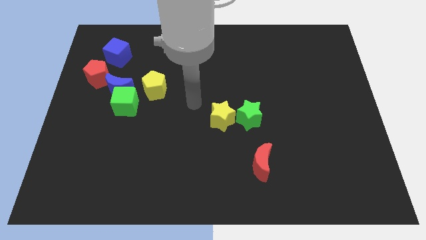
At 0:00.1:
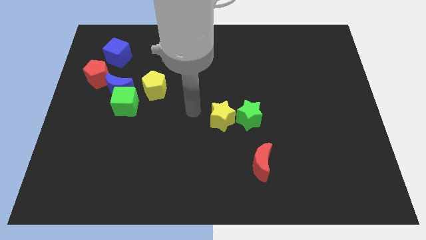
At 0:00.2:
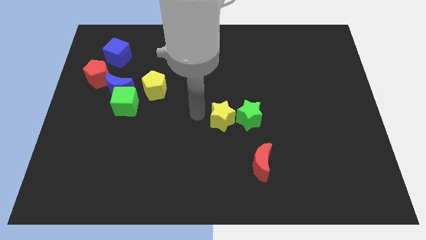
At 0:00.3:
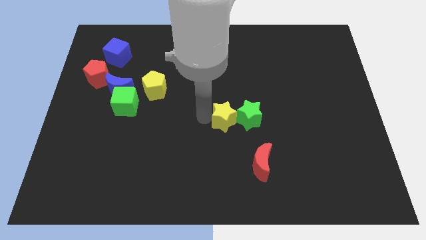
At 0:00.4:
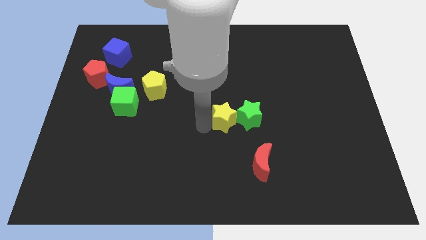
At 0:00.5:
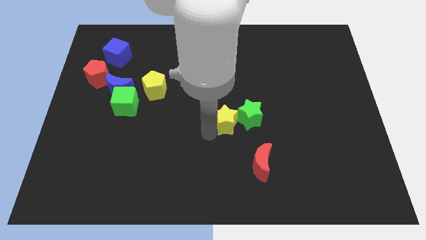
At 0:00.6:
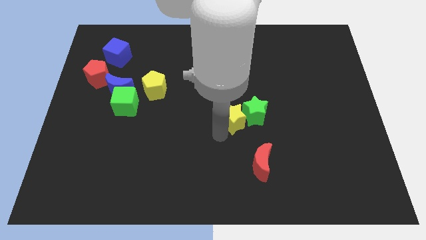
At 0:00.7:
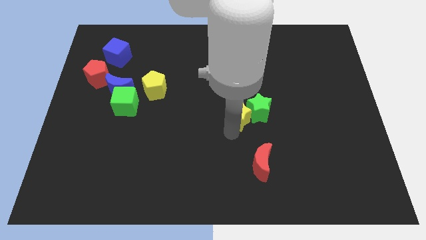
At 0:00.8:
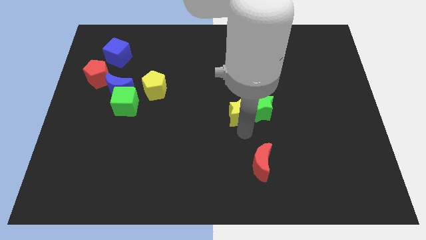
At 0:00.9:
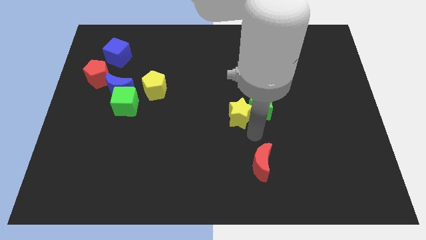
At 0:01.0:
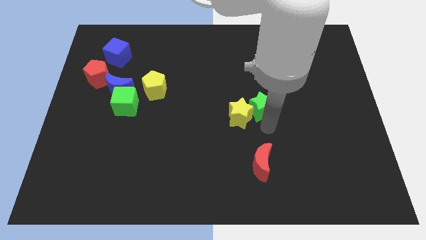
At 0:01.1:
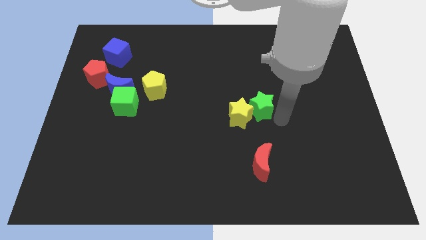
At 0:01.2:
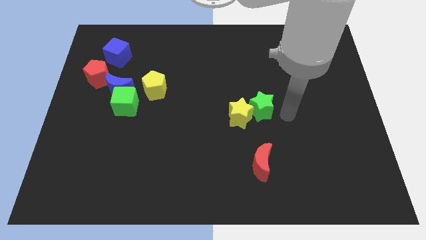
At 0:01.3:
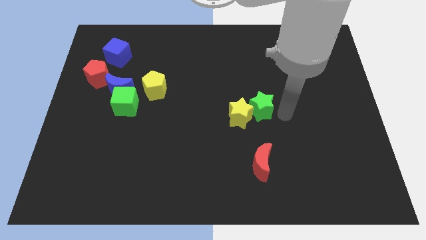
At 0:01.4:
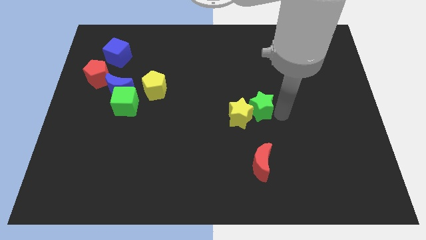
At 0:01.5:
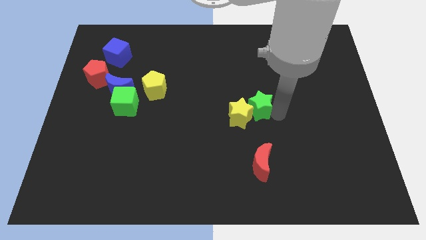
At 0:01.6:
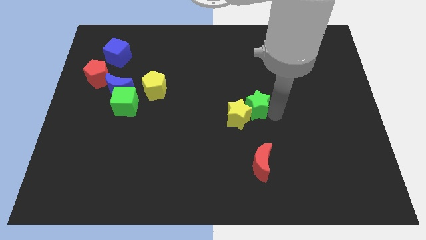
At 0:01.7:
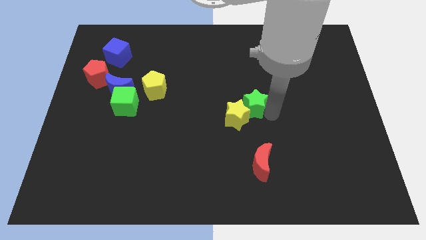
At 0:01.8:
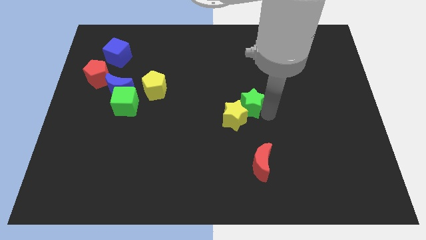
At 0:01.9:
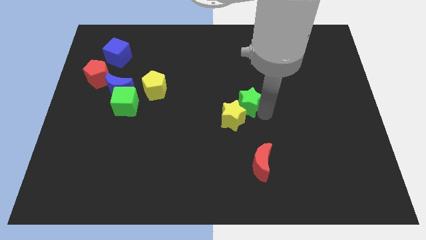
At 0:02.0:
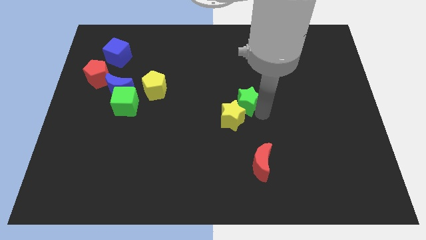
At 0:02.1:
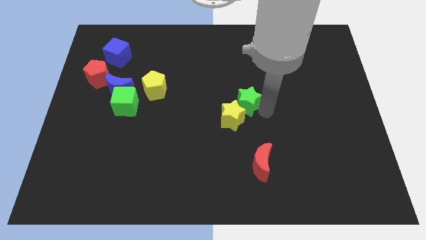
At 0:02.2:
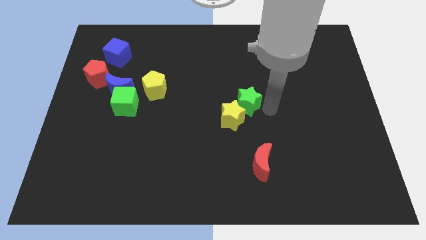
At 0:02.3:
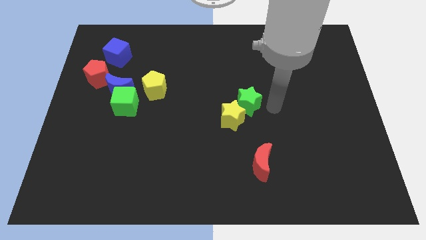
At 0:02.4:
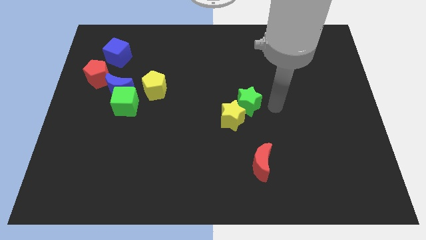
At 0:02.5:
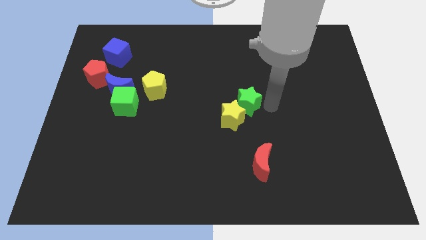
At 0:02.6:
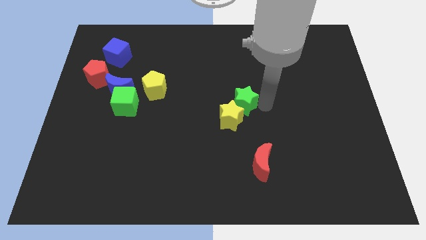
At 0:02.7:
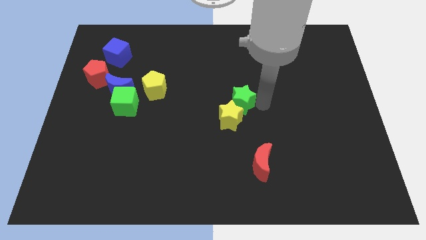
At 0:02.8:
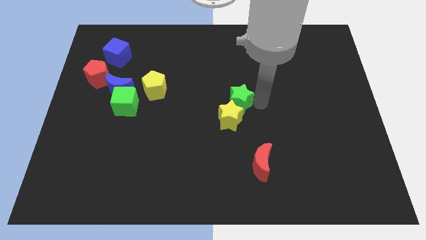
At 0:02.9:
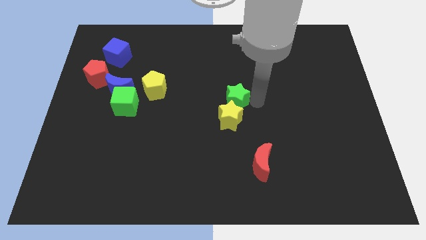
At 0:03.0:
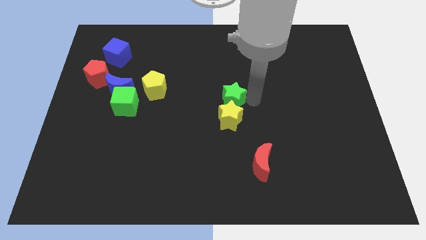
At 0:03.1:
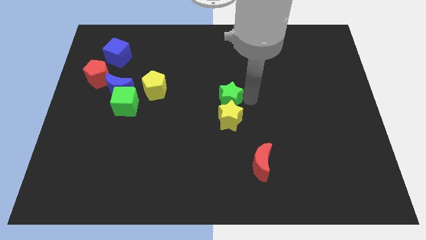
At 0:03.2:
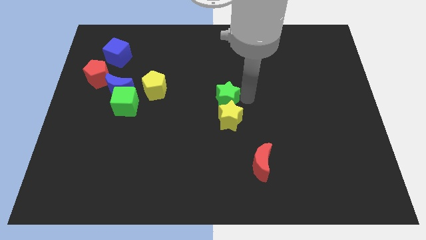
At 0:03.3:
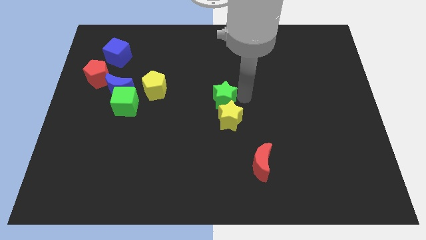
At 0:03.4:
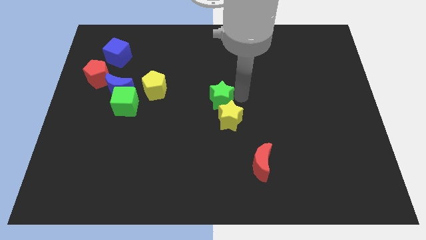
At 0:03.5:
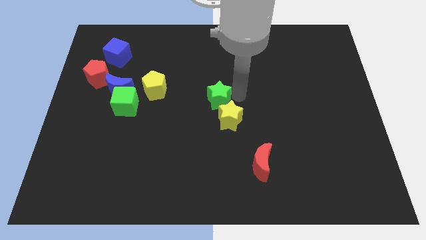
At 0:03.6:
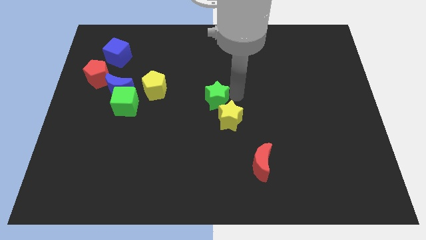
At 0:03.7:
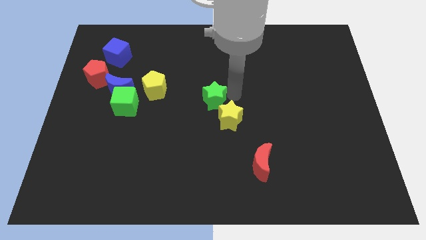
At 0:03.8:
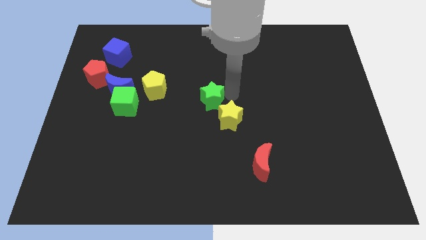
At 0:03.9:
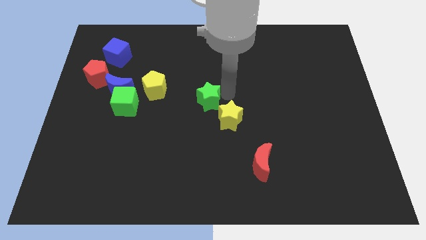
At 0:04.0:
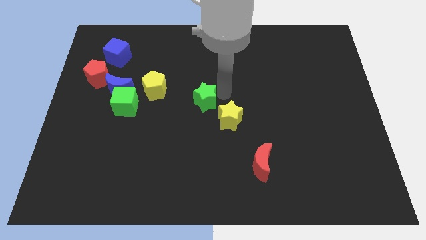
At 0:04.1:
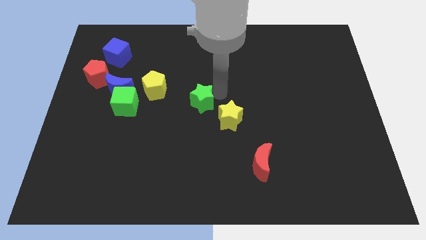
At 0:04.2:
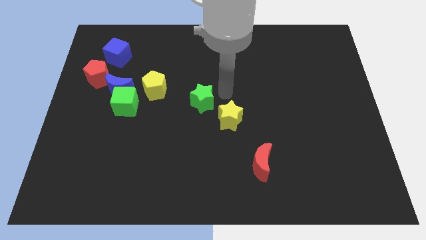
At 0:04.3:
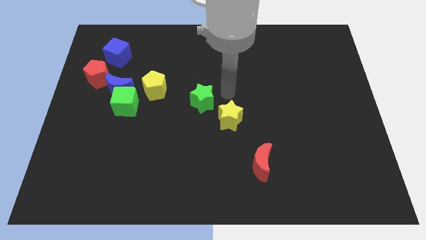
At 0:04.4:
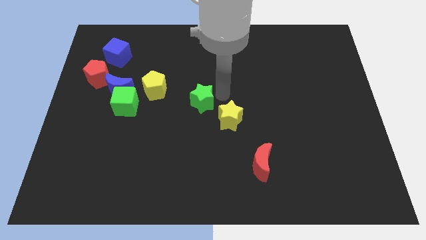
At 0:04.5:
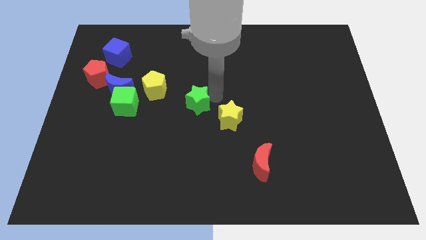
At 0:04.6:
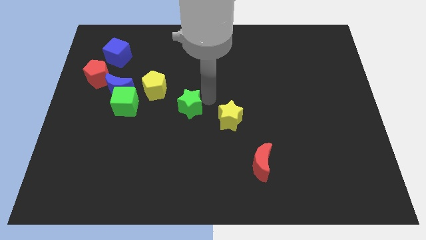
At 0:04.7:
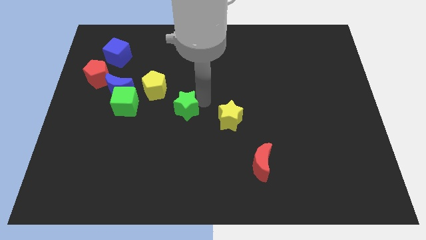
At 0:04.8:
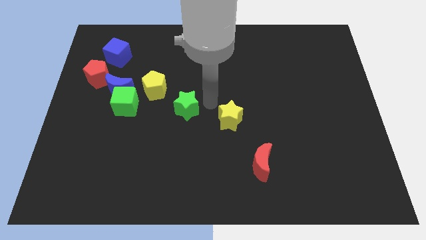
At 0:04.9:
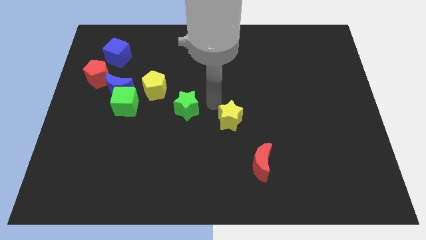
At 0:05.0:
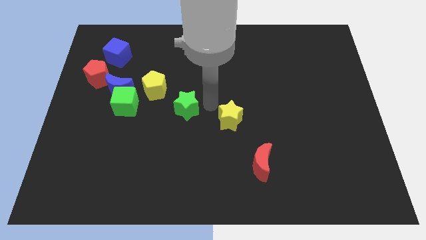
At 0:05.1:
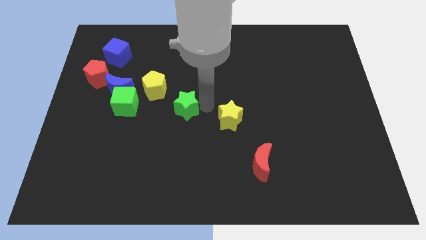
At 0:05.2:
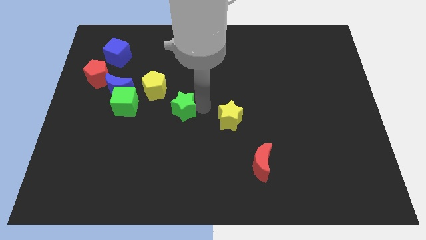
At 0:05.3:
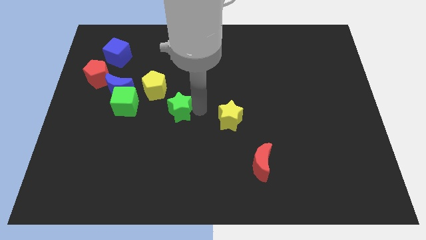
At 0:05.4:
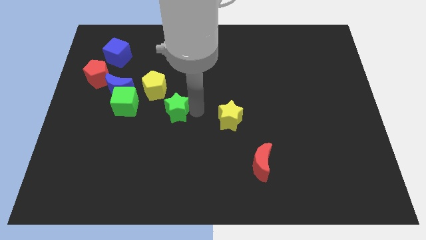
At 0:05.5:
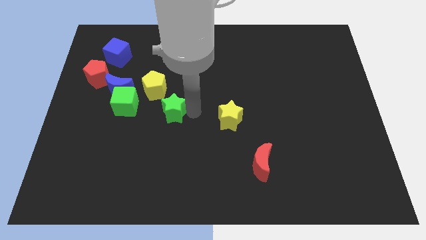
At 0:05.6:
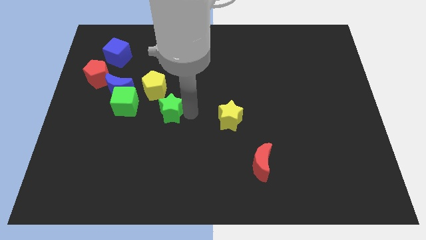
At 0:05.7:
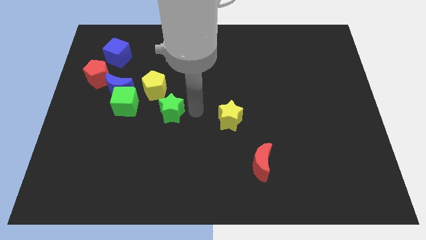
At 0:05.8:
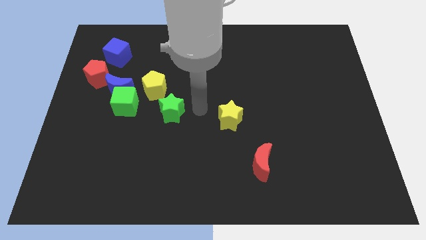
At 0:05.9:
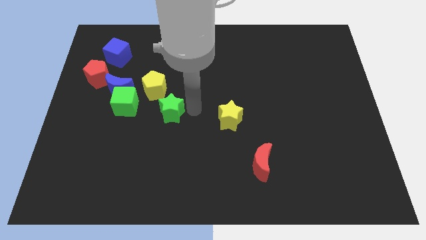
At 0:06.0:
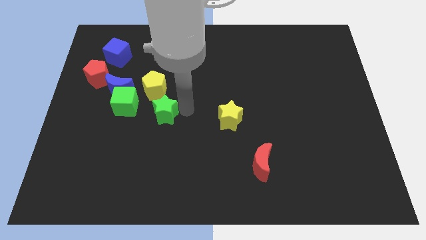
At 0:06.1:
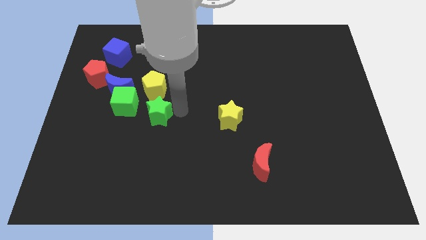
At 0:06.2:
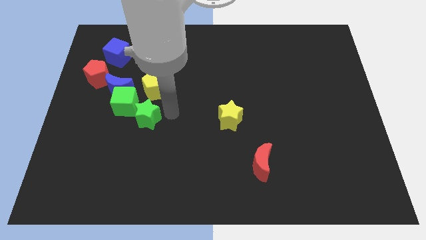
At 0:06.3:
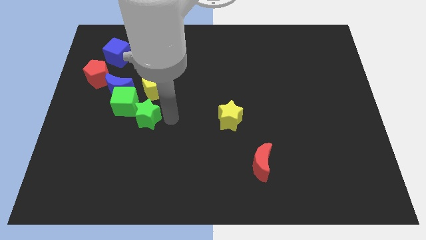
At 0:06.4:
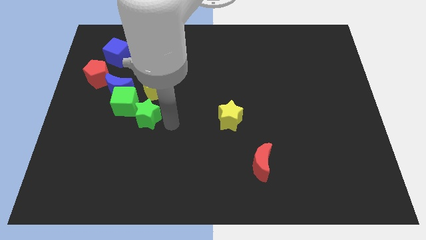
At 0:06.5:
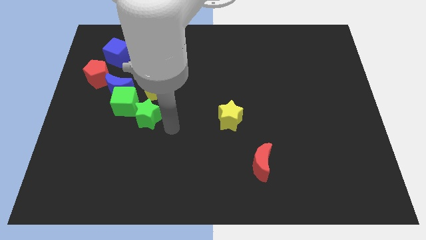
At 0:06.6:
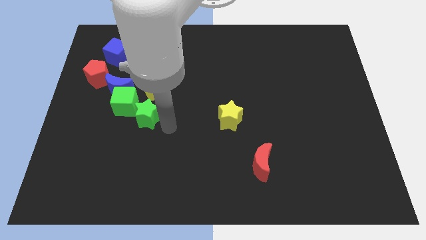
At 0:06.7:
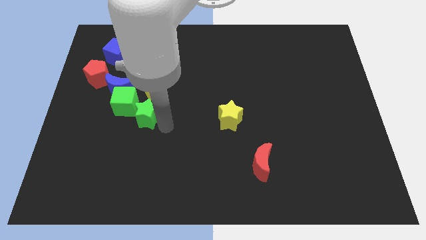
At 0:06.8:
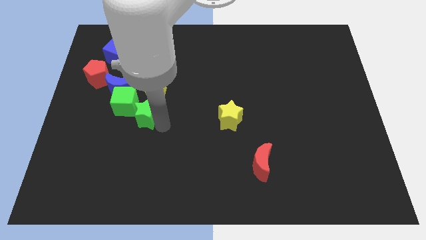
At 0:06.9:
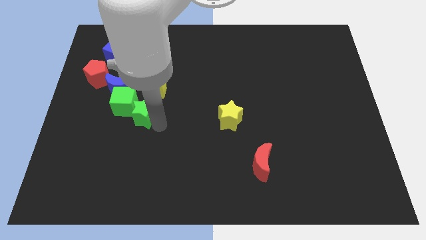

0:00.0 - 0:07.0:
move the green star close to the green cube

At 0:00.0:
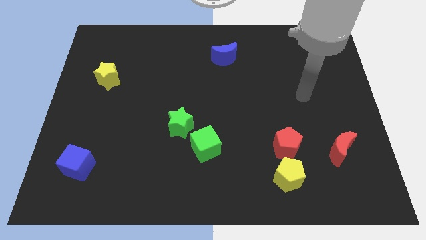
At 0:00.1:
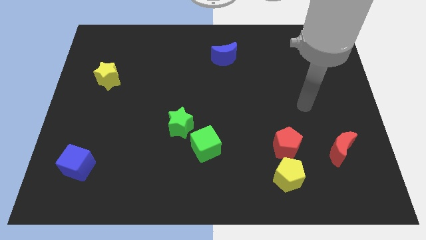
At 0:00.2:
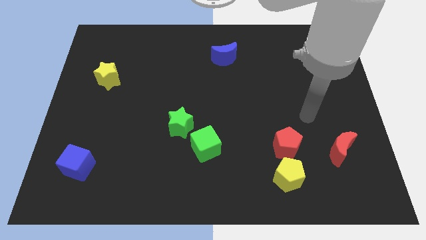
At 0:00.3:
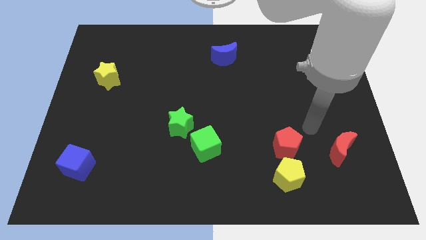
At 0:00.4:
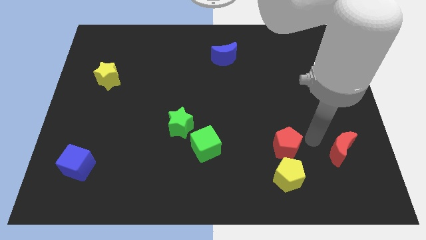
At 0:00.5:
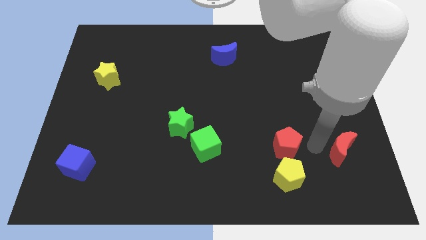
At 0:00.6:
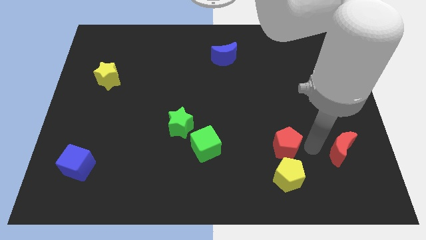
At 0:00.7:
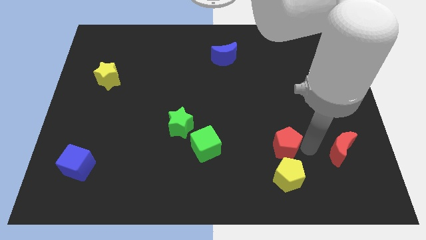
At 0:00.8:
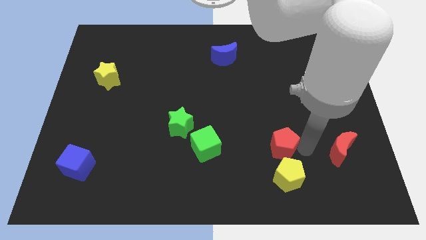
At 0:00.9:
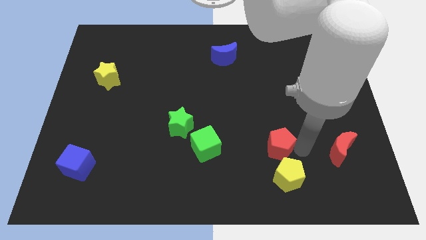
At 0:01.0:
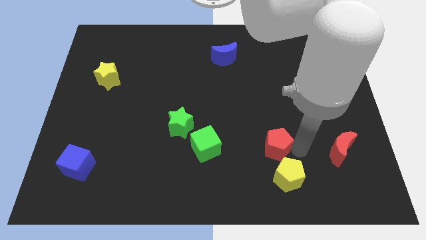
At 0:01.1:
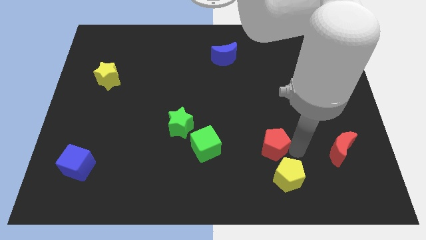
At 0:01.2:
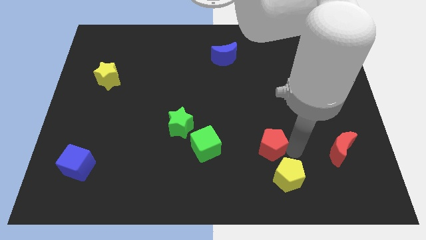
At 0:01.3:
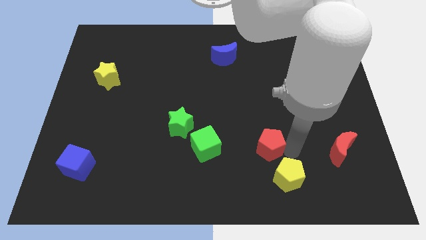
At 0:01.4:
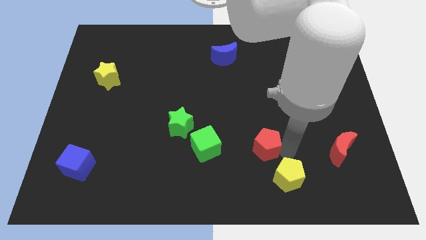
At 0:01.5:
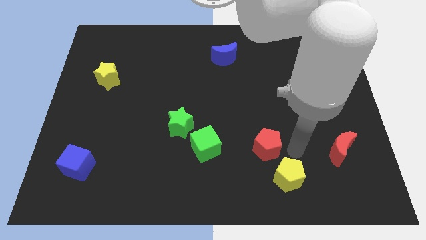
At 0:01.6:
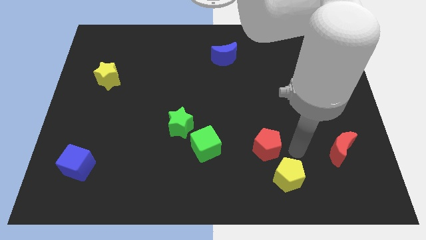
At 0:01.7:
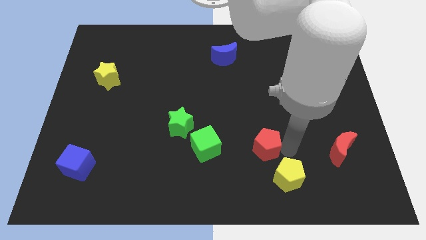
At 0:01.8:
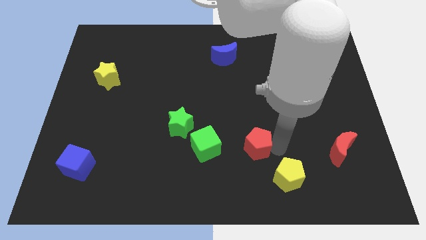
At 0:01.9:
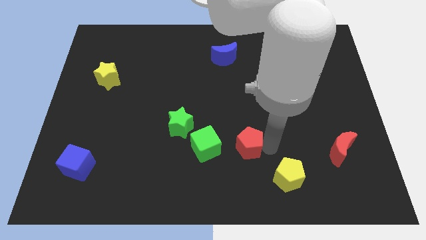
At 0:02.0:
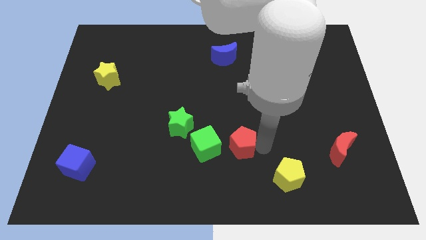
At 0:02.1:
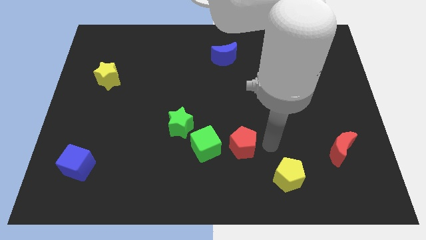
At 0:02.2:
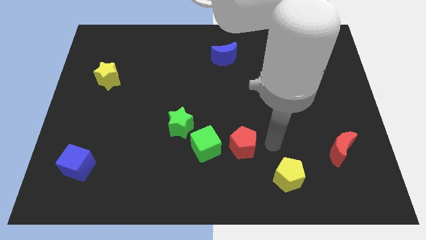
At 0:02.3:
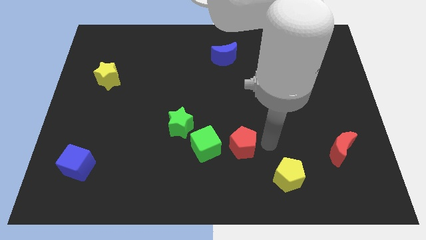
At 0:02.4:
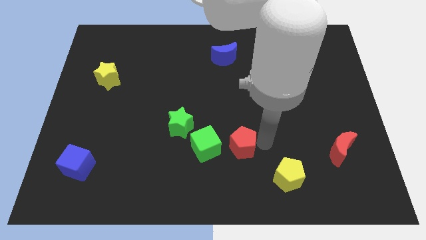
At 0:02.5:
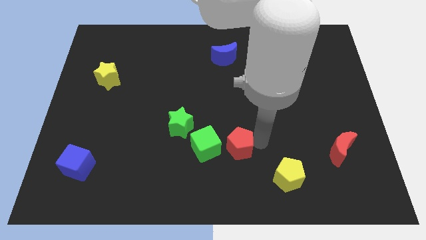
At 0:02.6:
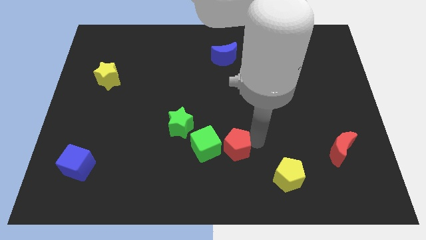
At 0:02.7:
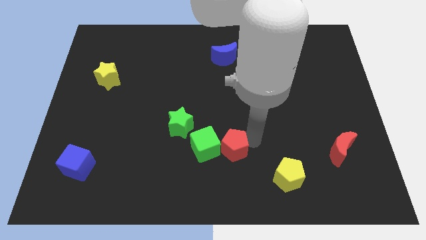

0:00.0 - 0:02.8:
slide the red pentagon next to the green cube
